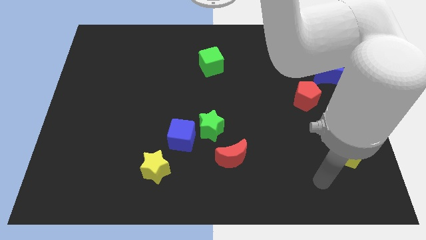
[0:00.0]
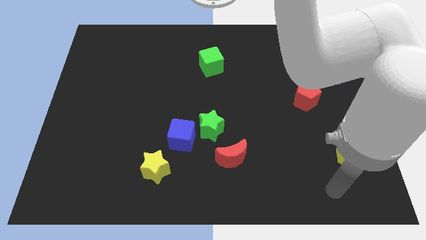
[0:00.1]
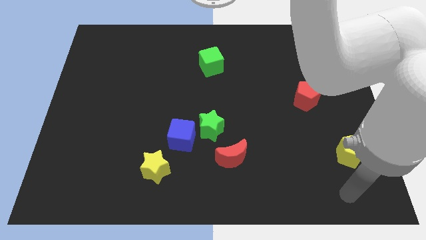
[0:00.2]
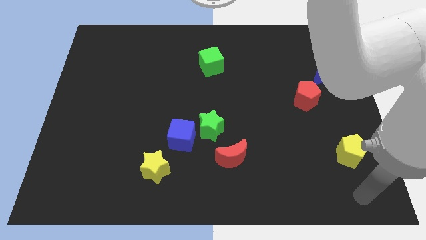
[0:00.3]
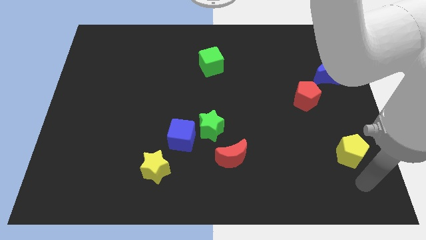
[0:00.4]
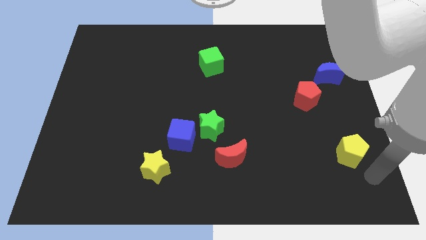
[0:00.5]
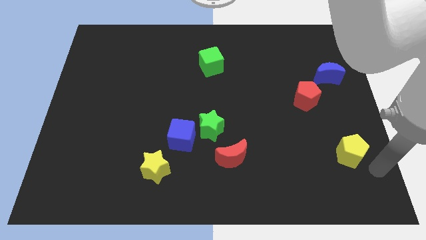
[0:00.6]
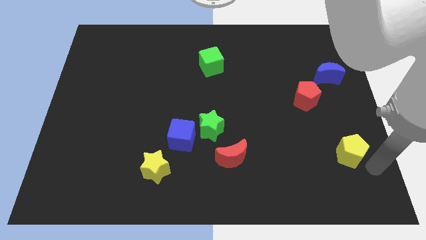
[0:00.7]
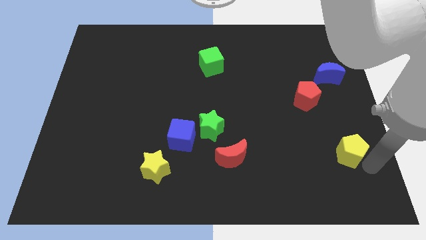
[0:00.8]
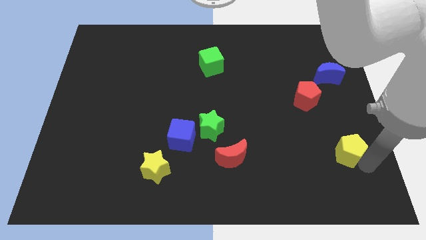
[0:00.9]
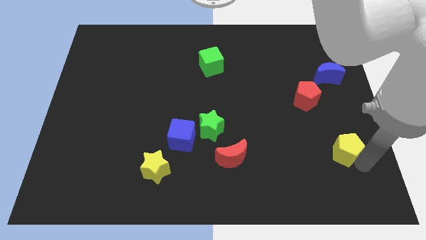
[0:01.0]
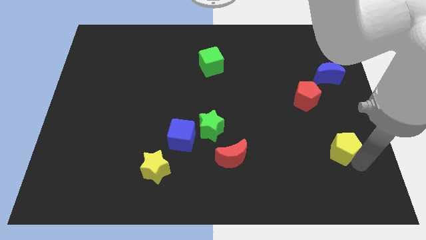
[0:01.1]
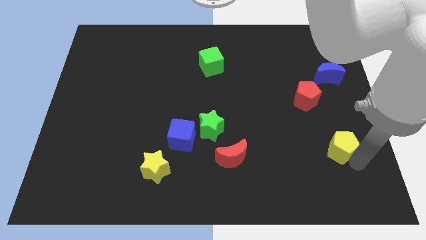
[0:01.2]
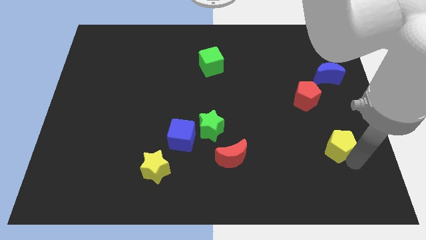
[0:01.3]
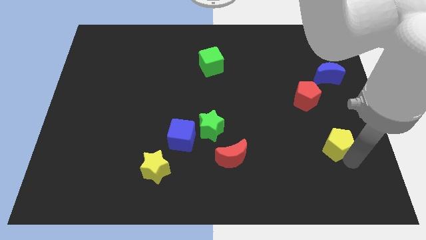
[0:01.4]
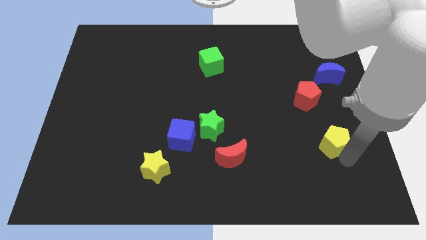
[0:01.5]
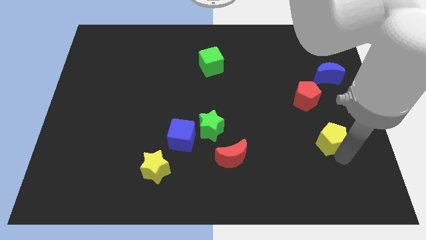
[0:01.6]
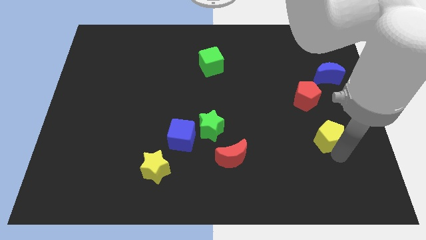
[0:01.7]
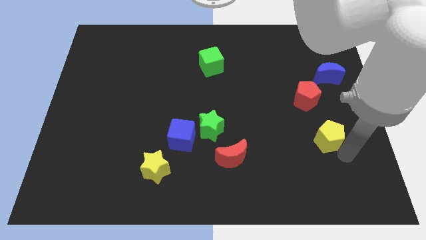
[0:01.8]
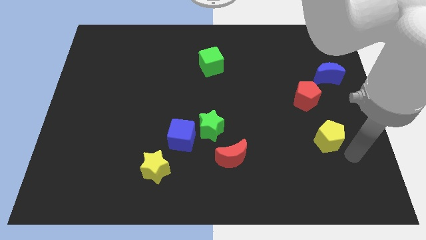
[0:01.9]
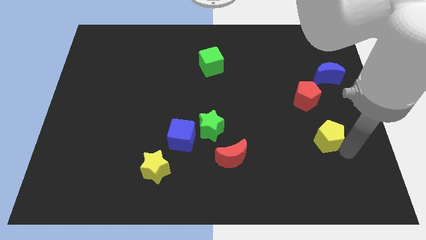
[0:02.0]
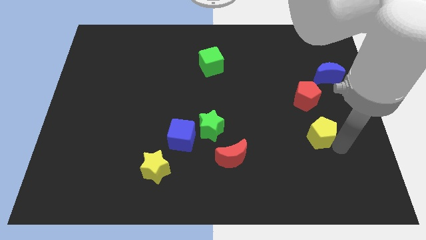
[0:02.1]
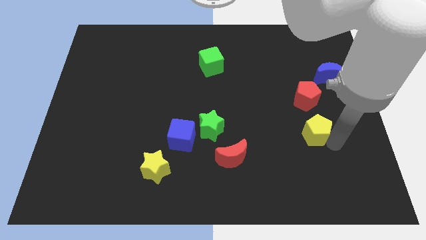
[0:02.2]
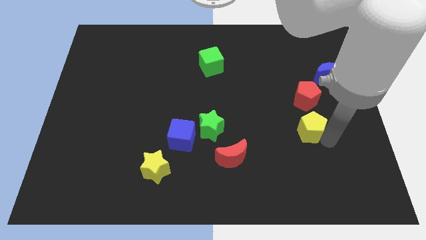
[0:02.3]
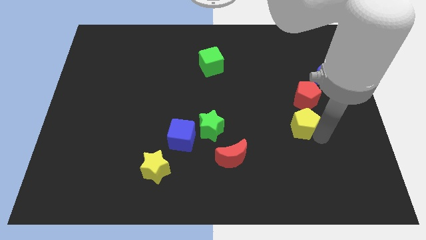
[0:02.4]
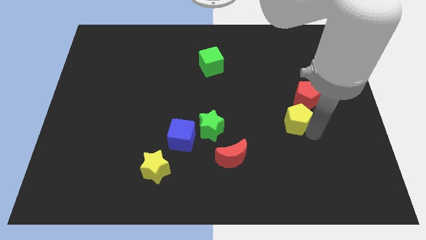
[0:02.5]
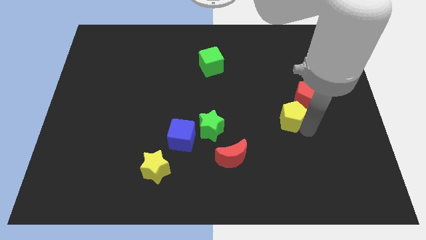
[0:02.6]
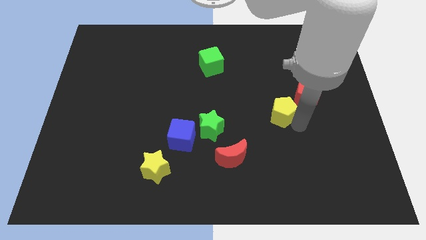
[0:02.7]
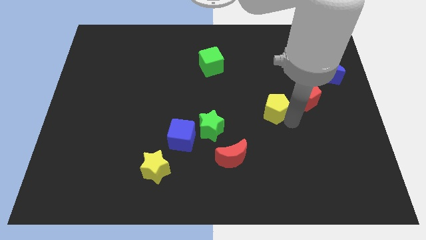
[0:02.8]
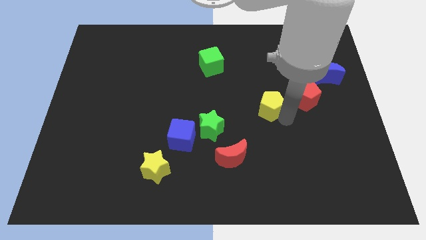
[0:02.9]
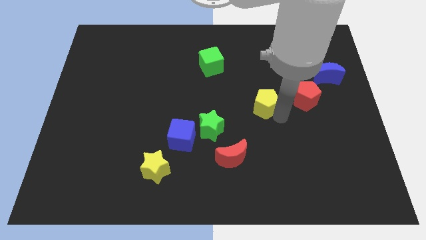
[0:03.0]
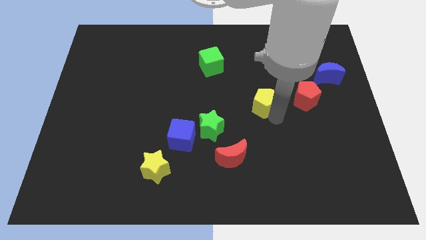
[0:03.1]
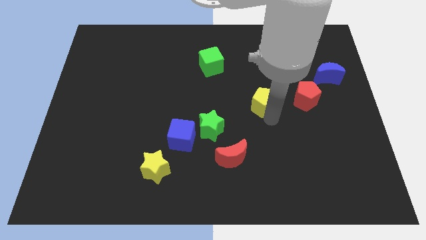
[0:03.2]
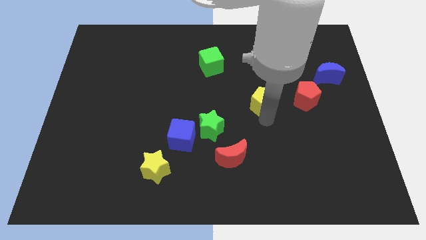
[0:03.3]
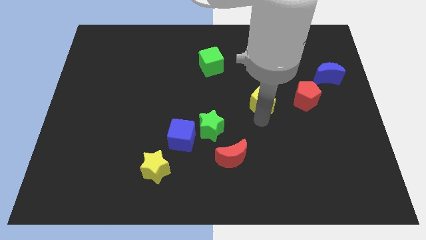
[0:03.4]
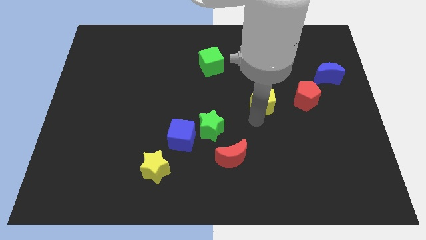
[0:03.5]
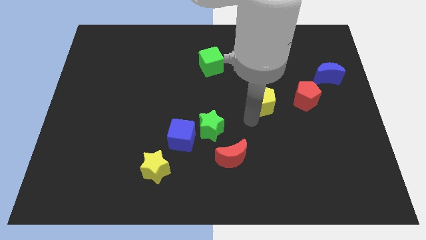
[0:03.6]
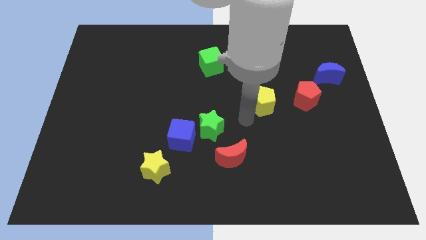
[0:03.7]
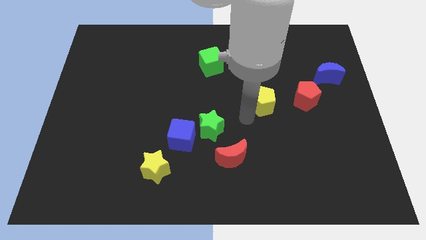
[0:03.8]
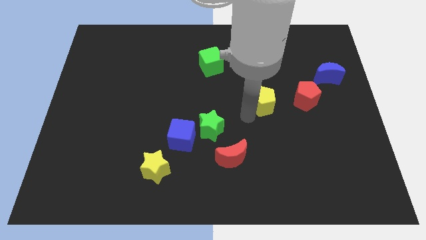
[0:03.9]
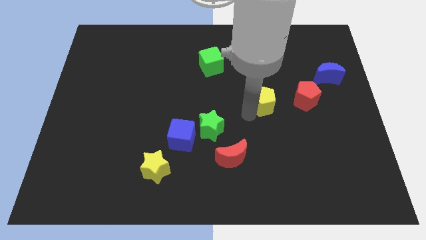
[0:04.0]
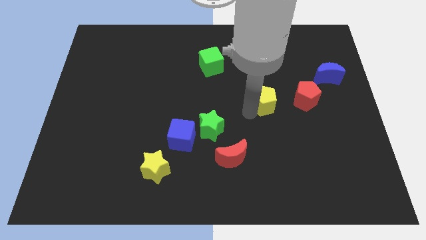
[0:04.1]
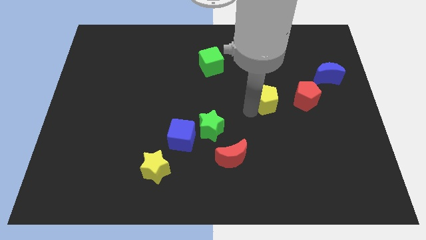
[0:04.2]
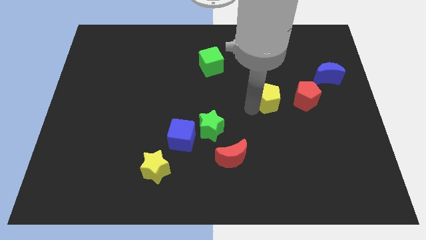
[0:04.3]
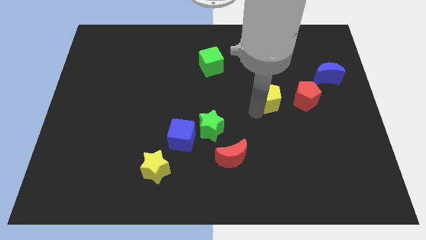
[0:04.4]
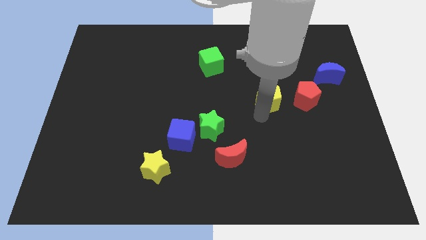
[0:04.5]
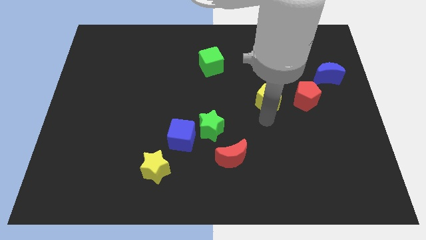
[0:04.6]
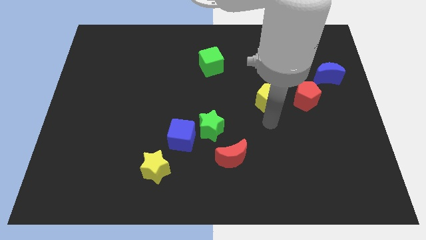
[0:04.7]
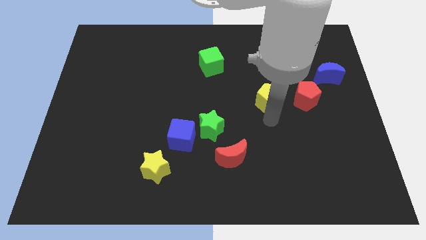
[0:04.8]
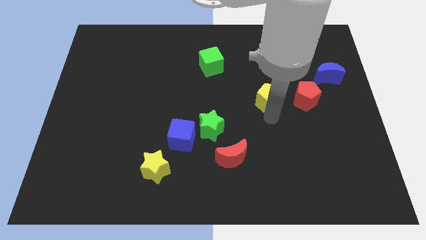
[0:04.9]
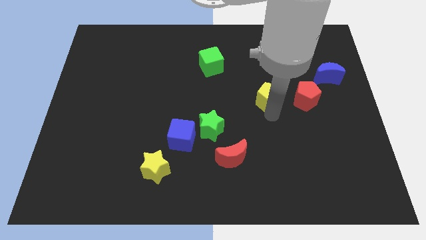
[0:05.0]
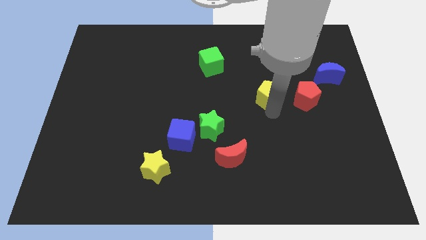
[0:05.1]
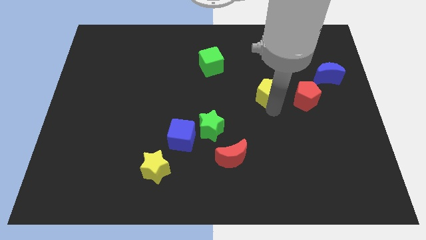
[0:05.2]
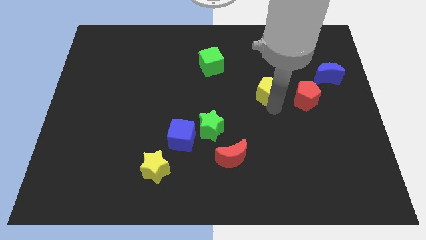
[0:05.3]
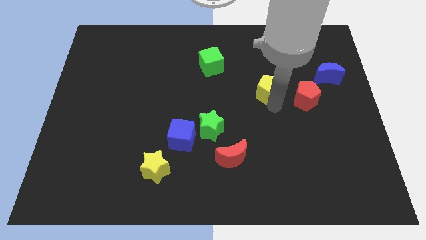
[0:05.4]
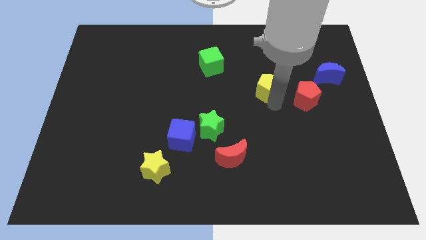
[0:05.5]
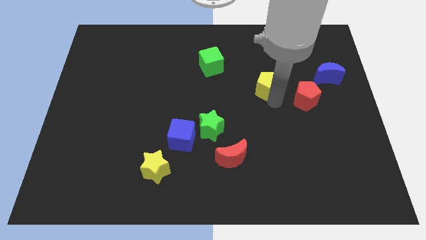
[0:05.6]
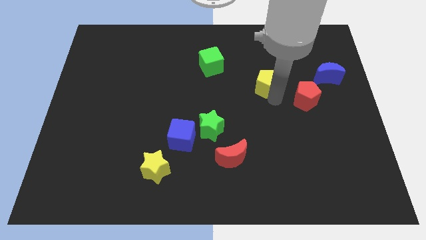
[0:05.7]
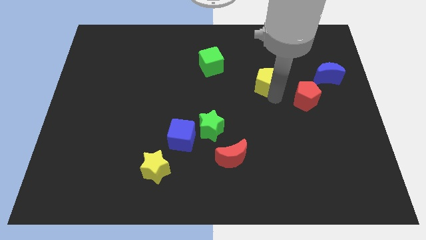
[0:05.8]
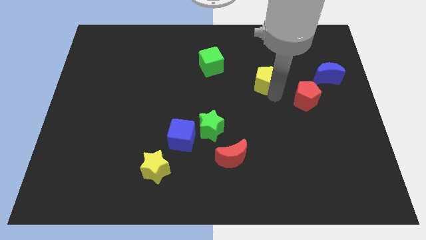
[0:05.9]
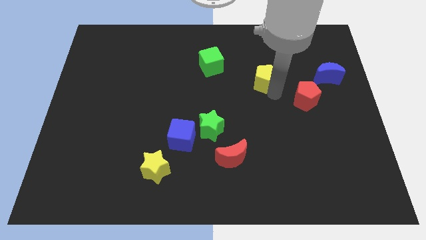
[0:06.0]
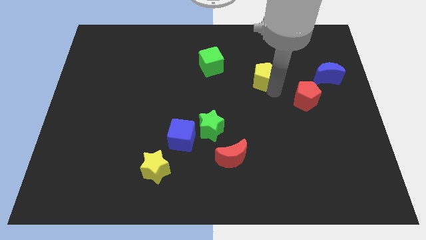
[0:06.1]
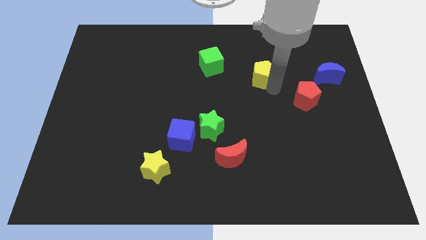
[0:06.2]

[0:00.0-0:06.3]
put the yellow pentagon to the right side of the green cube

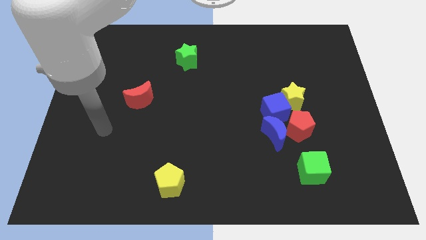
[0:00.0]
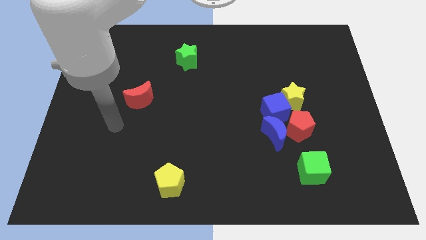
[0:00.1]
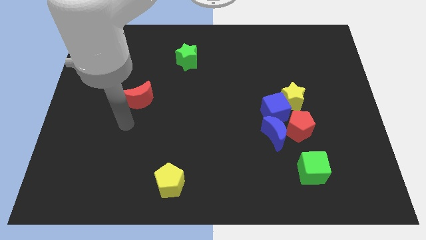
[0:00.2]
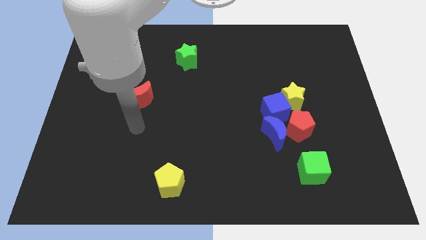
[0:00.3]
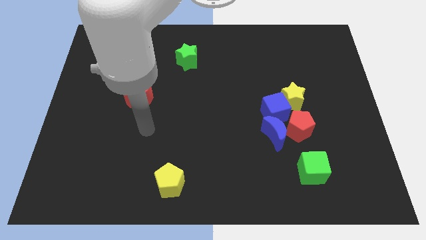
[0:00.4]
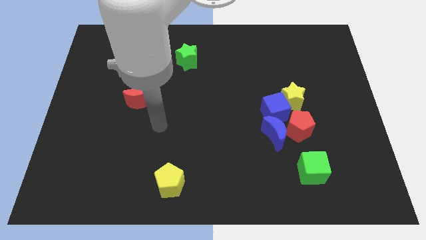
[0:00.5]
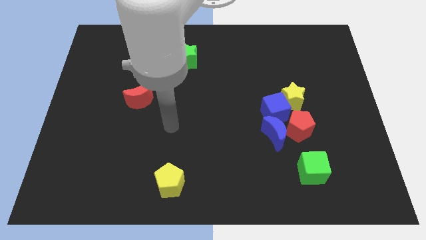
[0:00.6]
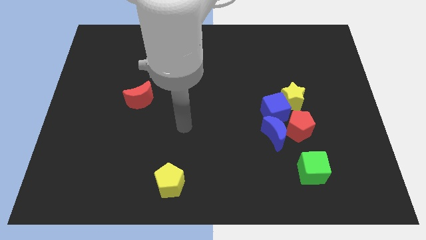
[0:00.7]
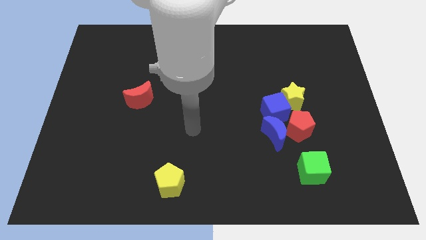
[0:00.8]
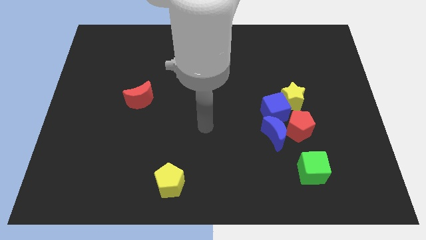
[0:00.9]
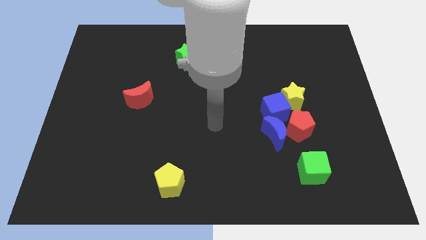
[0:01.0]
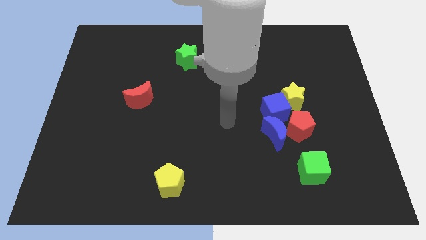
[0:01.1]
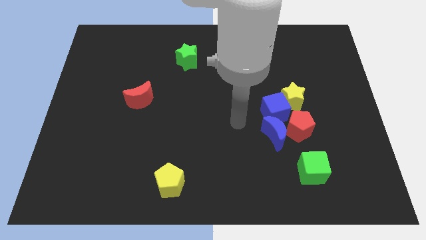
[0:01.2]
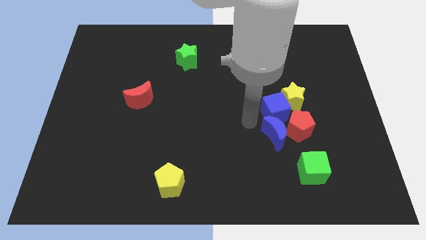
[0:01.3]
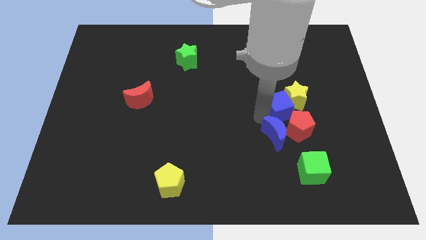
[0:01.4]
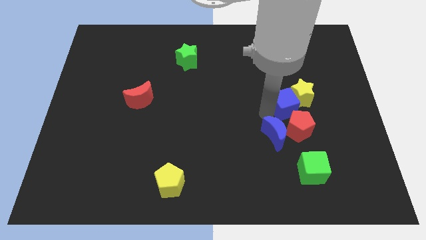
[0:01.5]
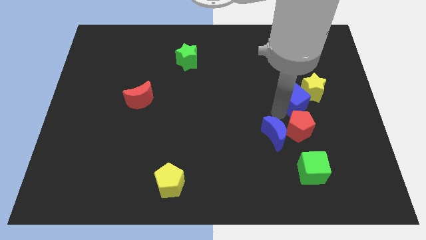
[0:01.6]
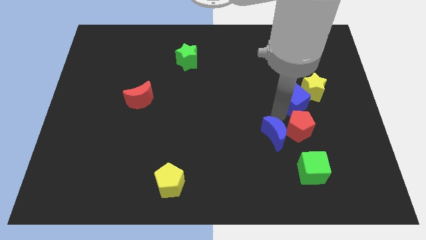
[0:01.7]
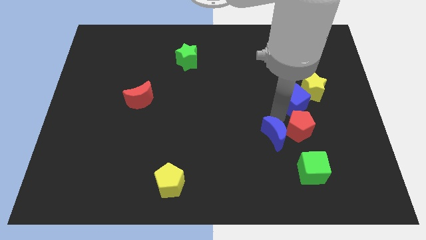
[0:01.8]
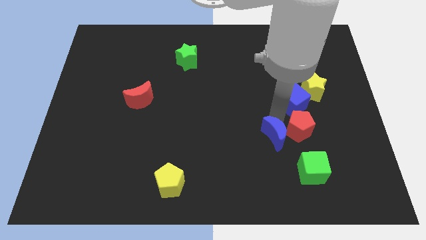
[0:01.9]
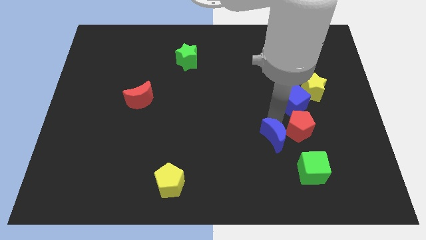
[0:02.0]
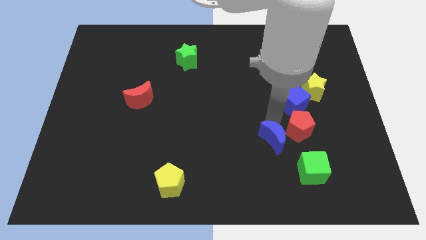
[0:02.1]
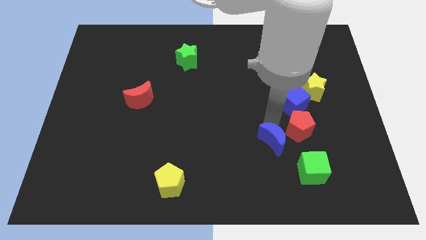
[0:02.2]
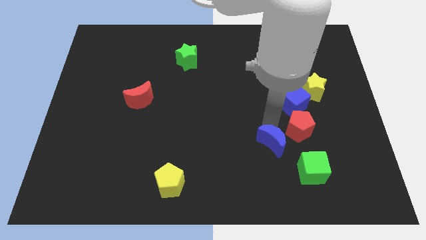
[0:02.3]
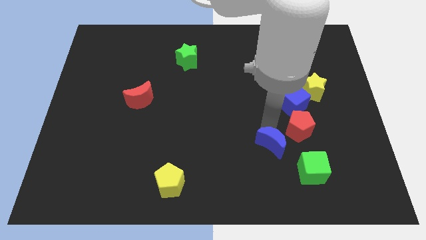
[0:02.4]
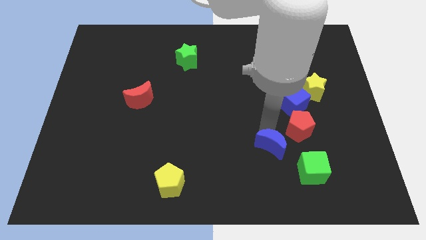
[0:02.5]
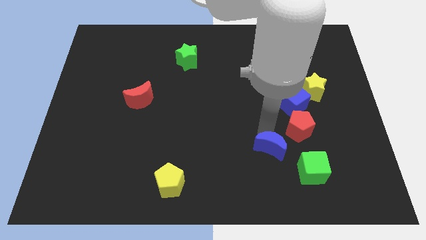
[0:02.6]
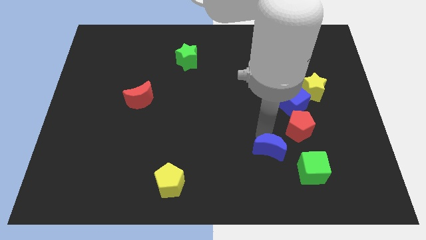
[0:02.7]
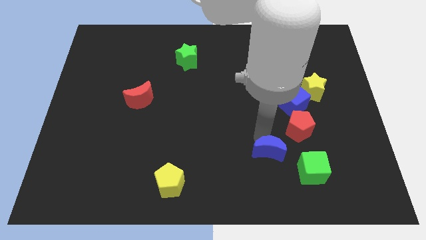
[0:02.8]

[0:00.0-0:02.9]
slide the blue moon to the left of the green cube
